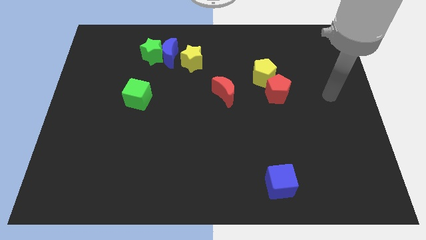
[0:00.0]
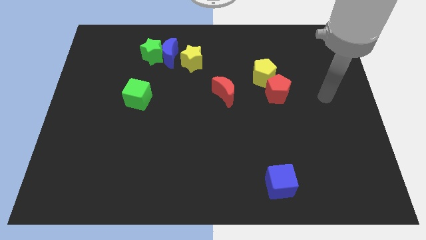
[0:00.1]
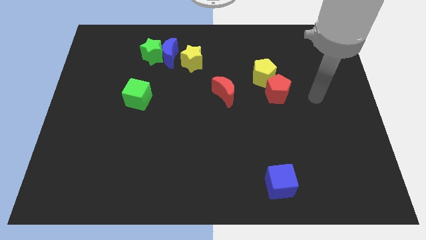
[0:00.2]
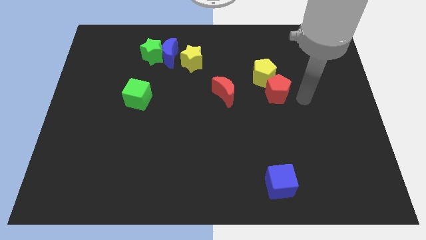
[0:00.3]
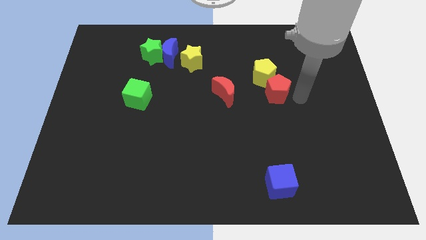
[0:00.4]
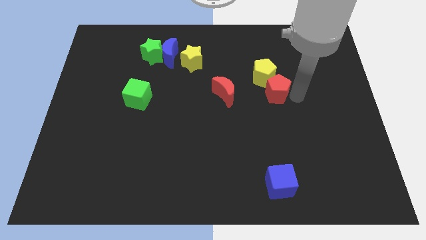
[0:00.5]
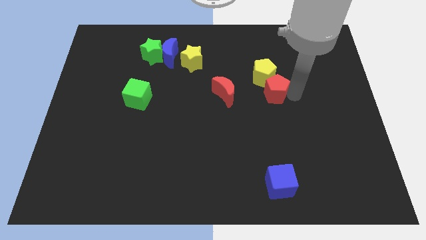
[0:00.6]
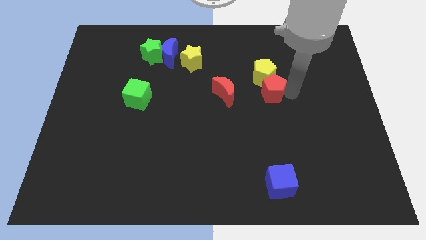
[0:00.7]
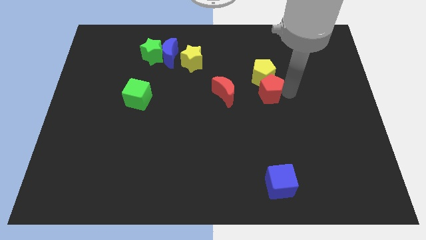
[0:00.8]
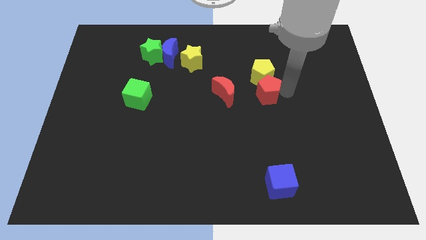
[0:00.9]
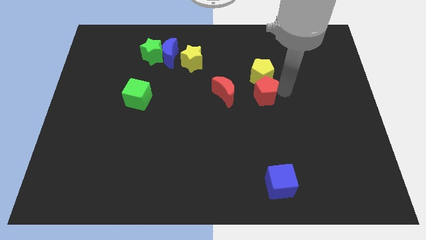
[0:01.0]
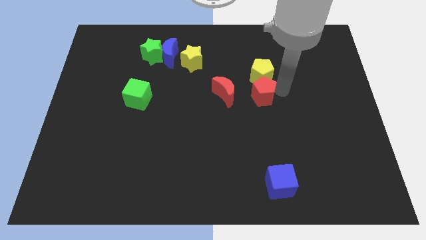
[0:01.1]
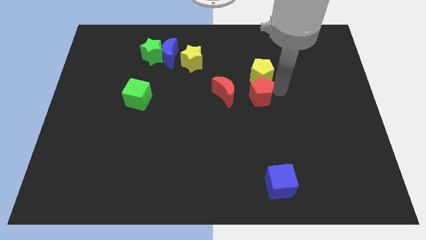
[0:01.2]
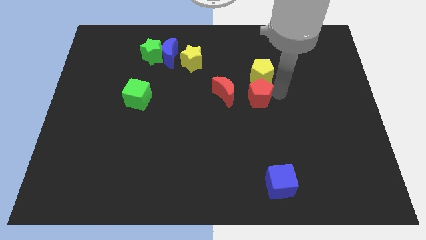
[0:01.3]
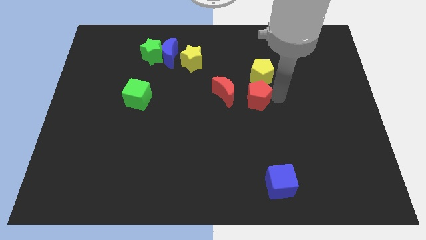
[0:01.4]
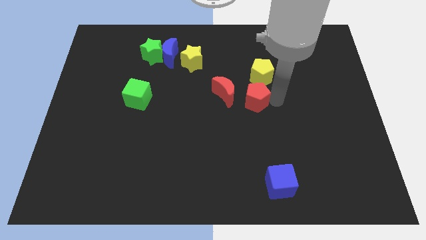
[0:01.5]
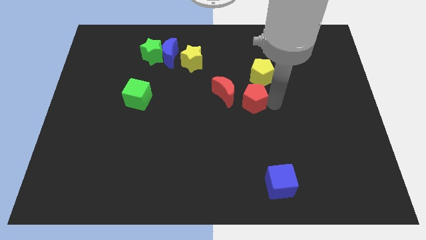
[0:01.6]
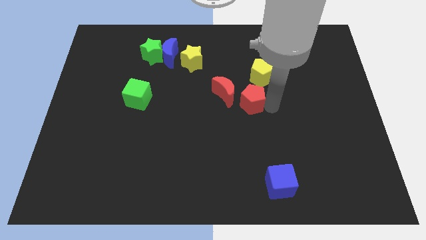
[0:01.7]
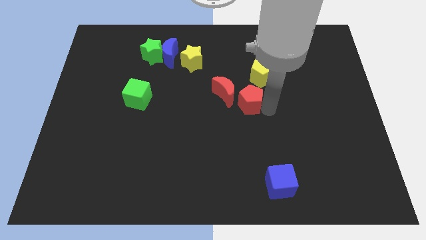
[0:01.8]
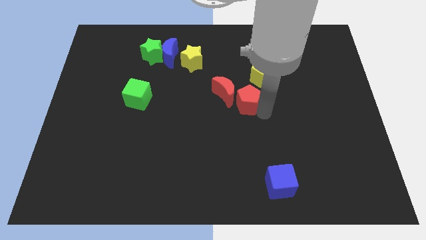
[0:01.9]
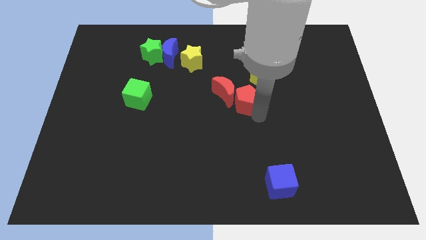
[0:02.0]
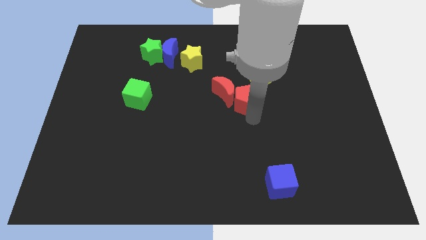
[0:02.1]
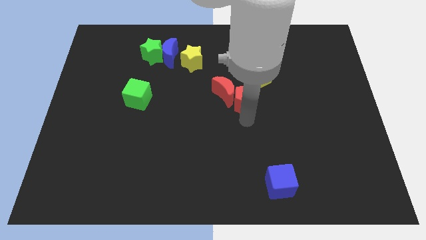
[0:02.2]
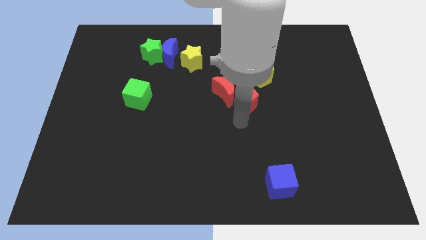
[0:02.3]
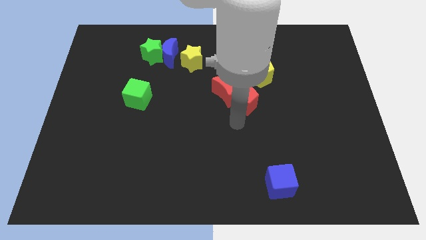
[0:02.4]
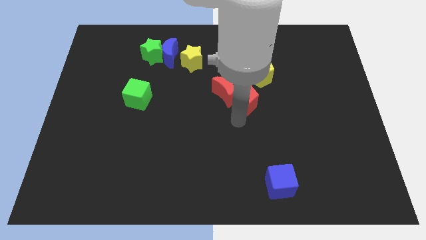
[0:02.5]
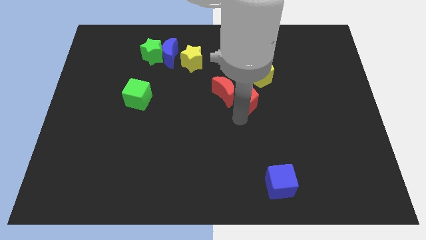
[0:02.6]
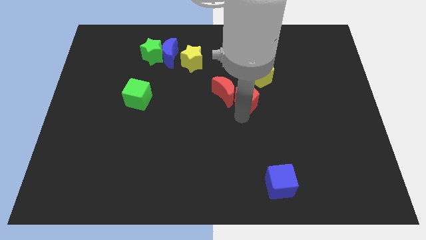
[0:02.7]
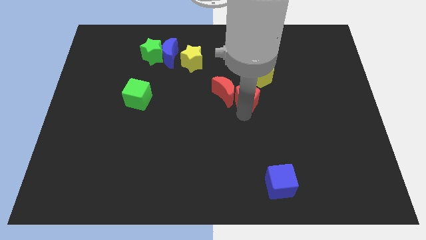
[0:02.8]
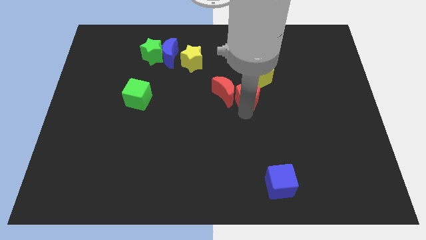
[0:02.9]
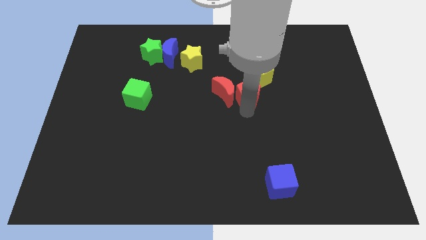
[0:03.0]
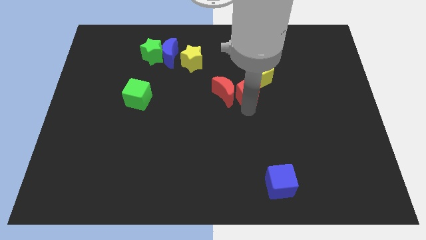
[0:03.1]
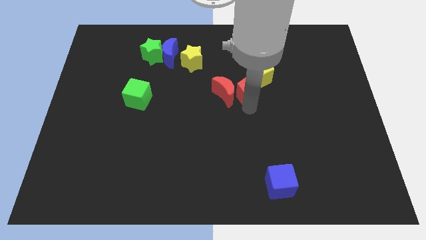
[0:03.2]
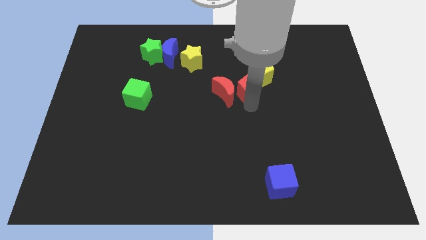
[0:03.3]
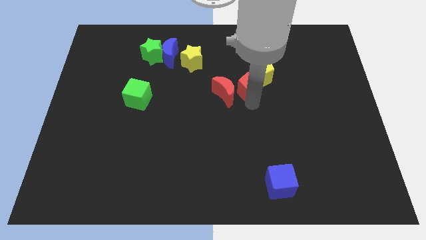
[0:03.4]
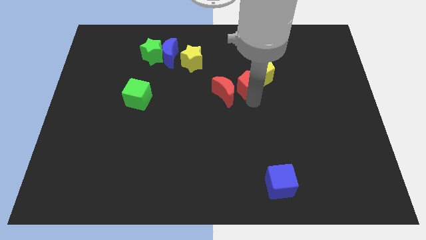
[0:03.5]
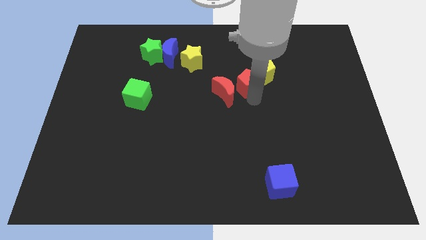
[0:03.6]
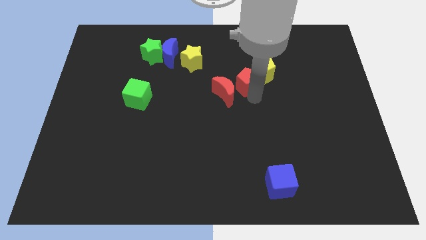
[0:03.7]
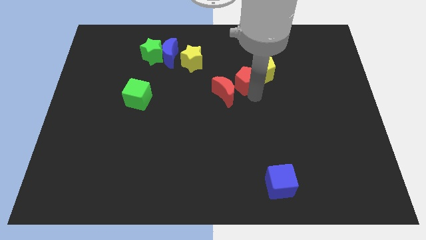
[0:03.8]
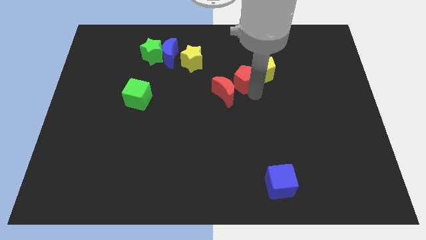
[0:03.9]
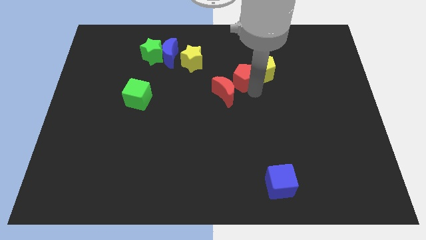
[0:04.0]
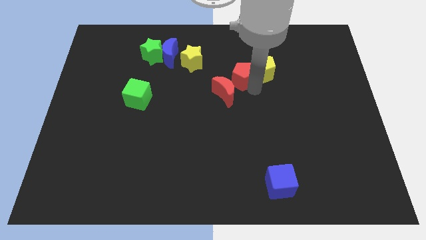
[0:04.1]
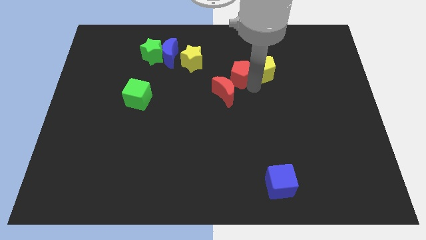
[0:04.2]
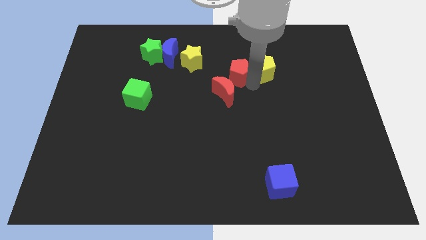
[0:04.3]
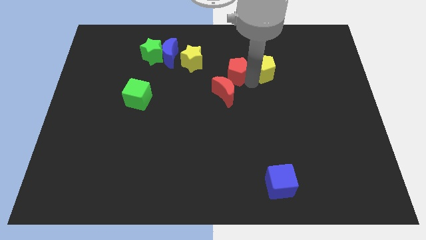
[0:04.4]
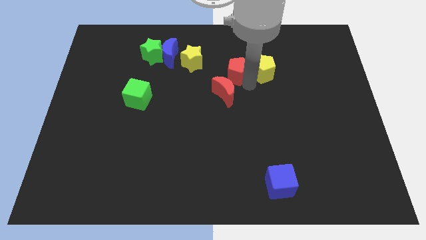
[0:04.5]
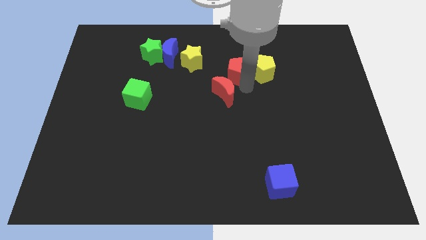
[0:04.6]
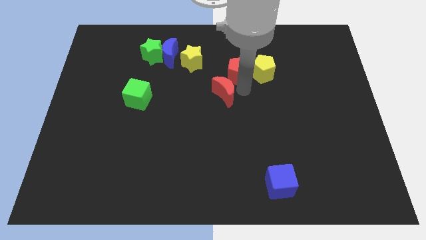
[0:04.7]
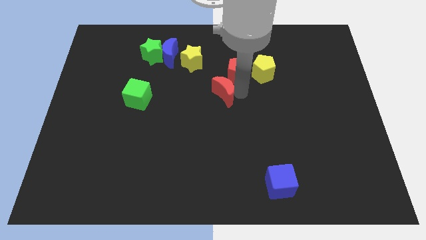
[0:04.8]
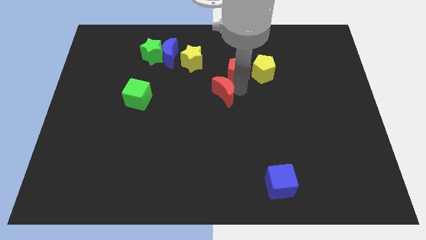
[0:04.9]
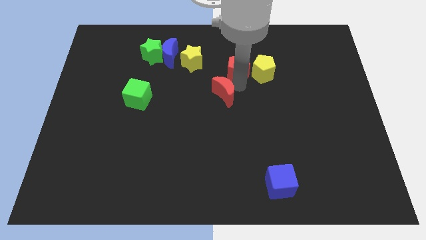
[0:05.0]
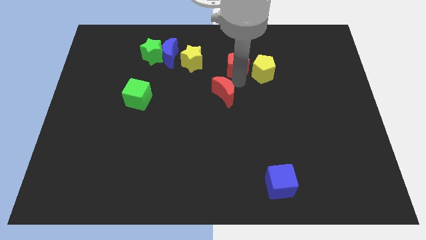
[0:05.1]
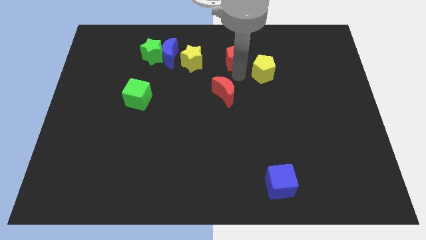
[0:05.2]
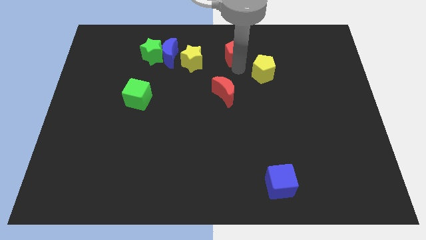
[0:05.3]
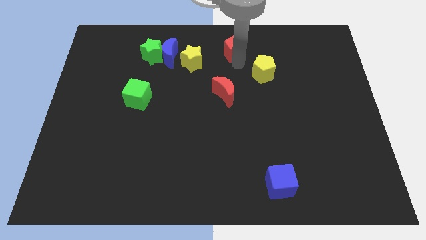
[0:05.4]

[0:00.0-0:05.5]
move the red pentagon to the towards your base

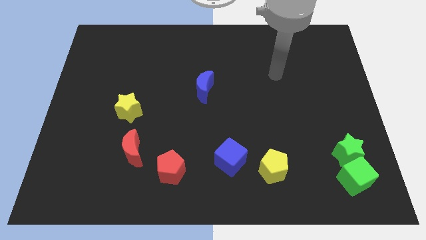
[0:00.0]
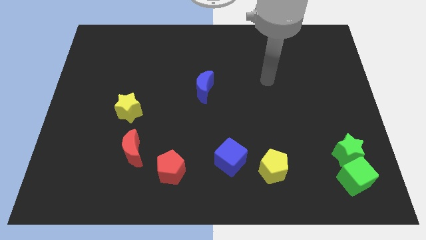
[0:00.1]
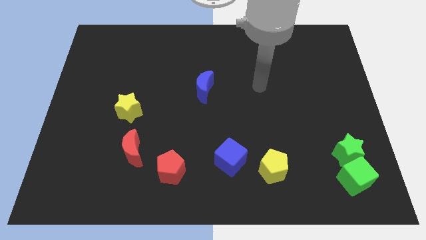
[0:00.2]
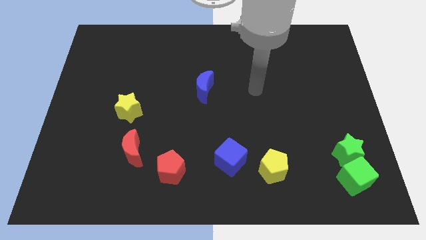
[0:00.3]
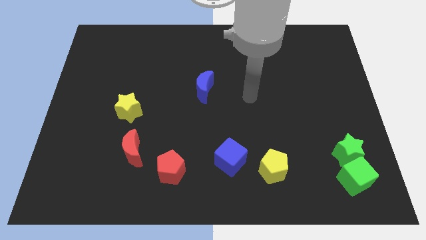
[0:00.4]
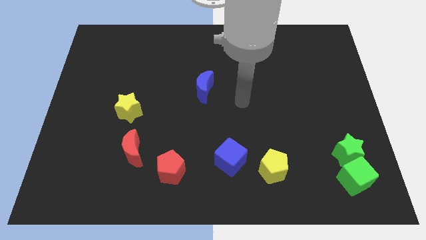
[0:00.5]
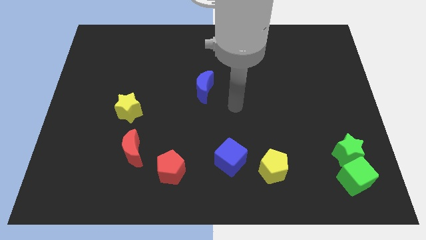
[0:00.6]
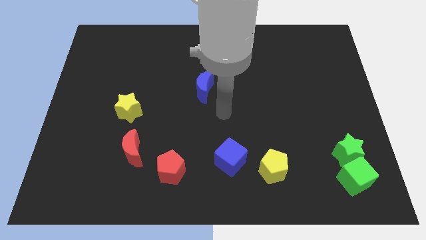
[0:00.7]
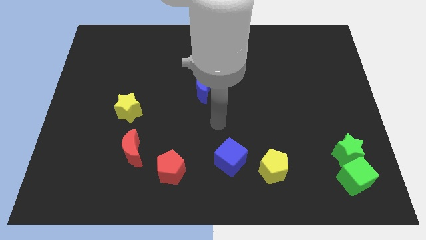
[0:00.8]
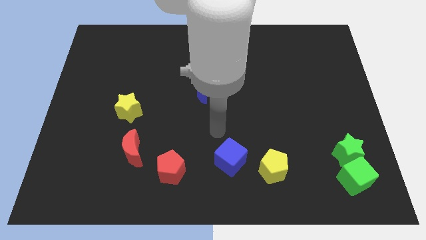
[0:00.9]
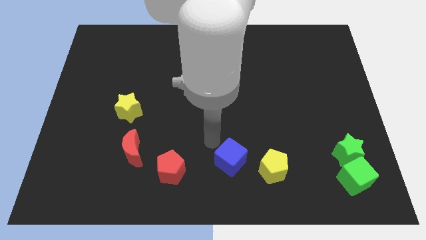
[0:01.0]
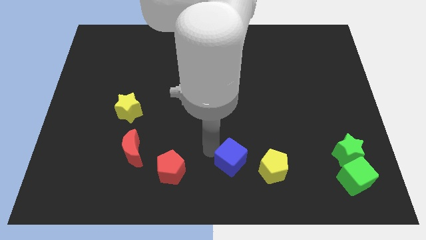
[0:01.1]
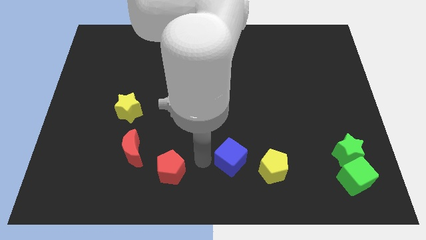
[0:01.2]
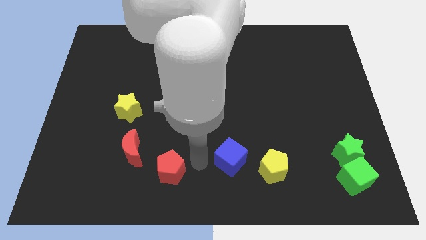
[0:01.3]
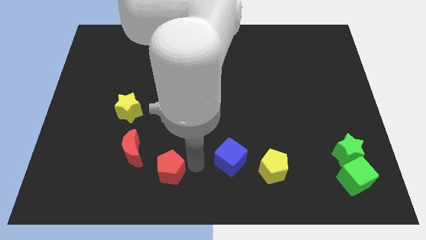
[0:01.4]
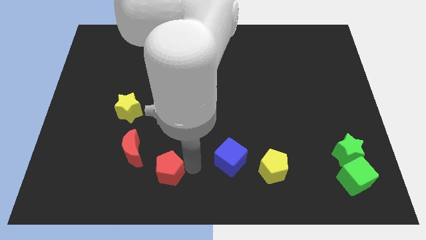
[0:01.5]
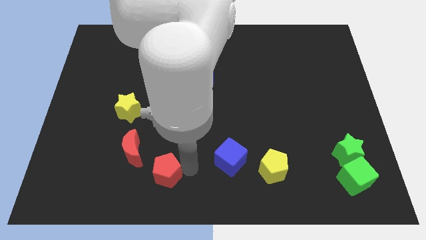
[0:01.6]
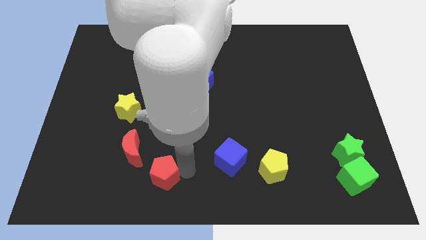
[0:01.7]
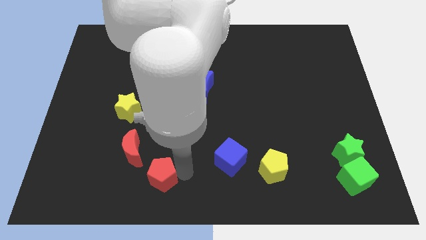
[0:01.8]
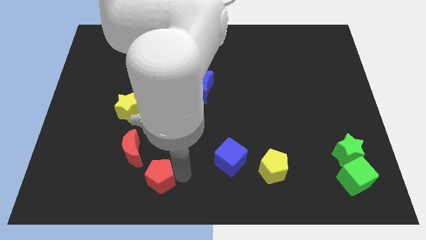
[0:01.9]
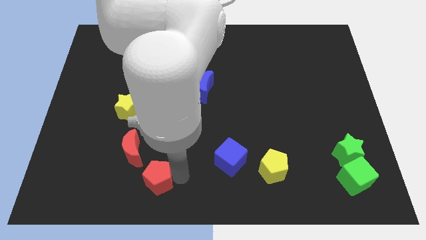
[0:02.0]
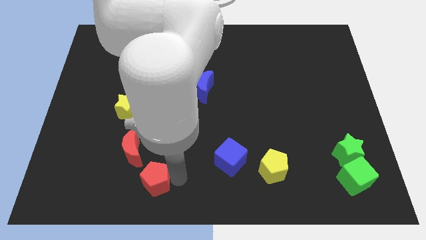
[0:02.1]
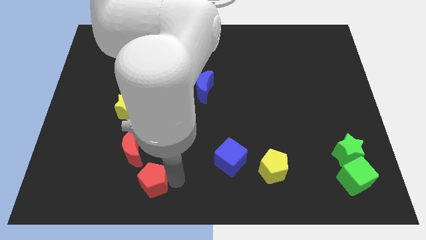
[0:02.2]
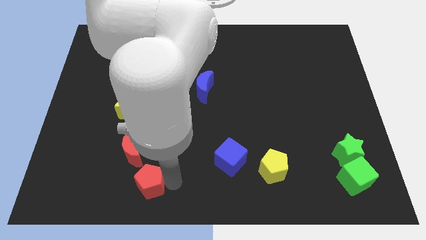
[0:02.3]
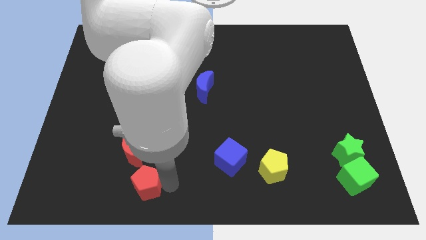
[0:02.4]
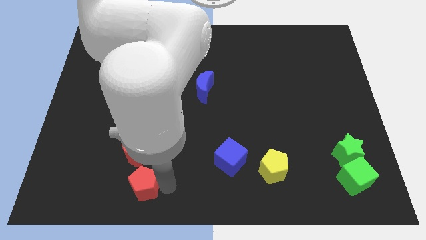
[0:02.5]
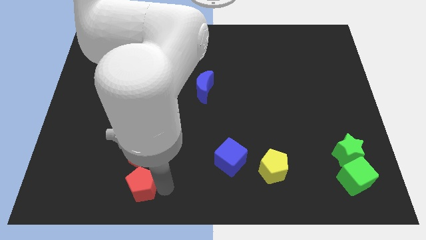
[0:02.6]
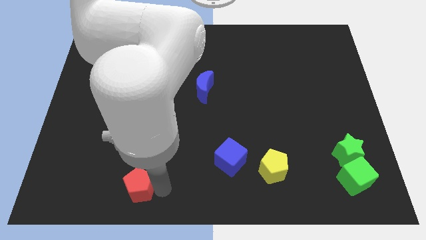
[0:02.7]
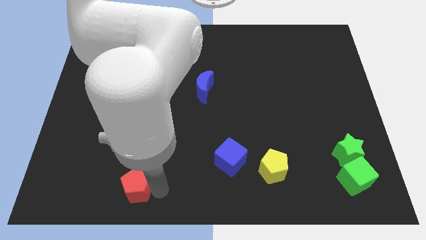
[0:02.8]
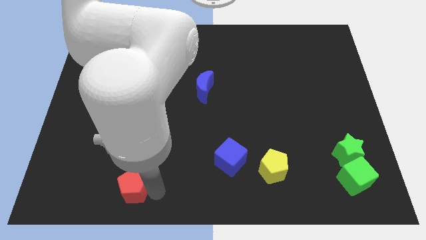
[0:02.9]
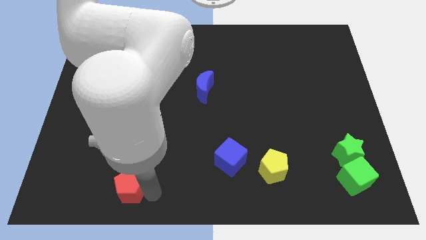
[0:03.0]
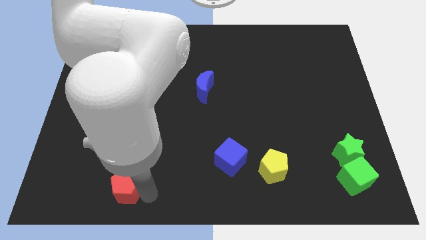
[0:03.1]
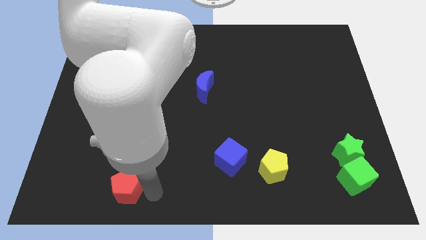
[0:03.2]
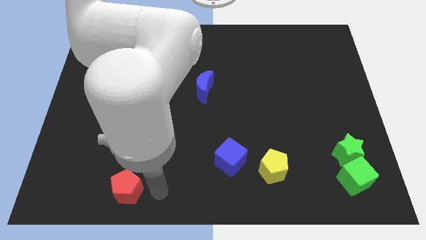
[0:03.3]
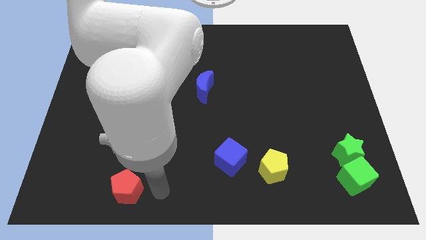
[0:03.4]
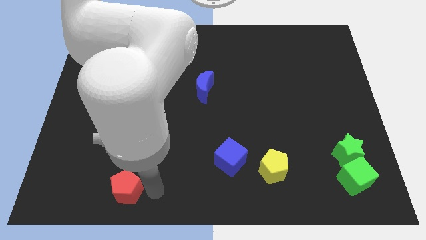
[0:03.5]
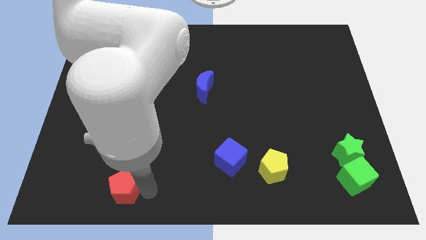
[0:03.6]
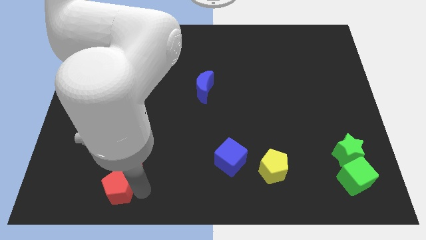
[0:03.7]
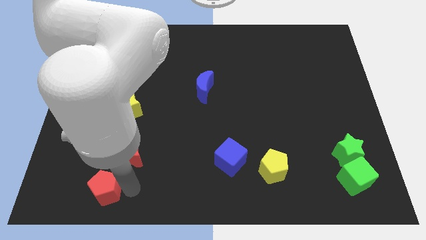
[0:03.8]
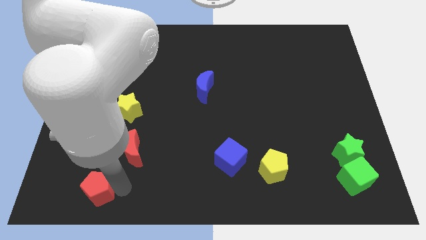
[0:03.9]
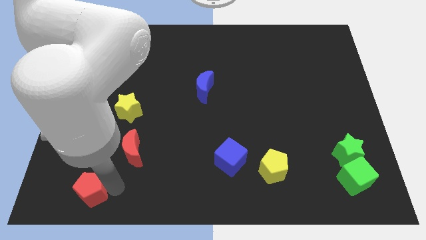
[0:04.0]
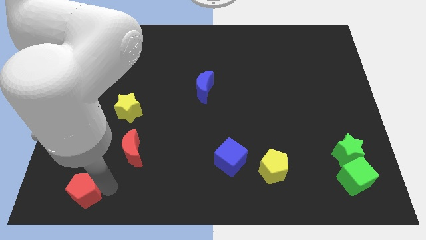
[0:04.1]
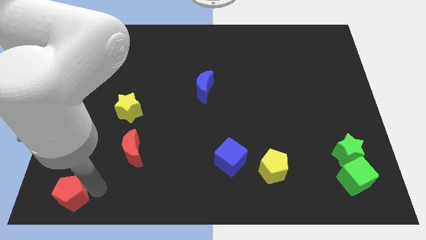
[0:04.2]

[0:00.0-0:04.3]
put the red pentagon to the bottom left corner
